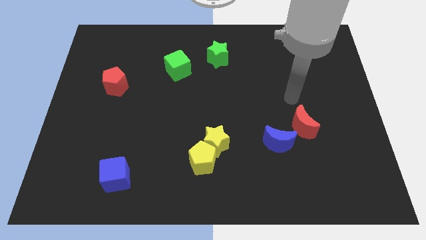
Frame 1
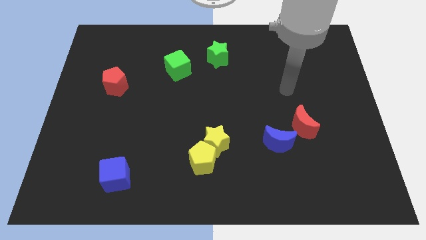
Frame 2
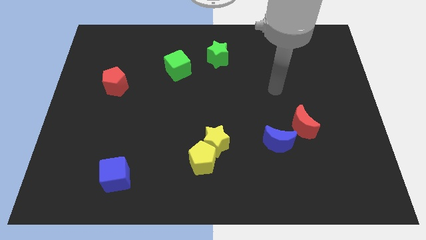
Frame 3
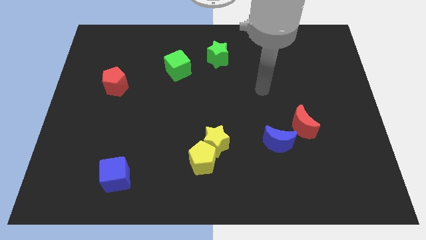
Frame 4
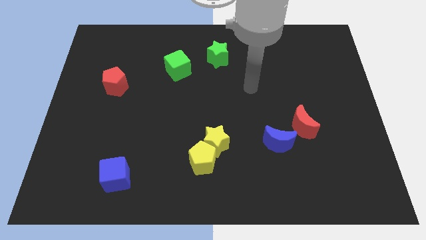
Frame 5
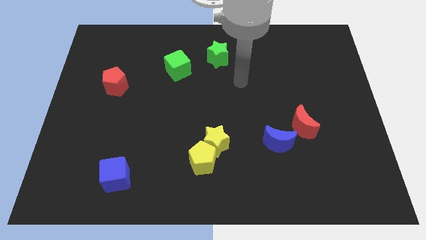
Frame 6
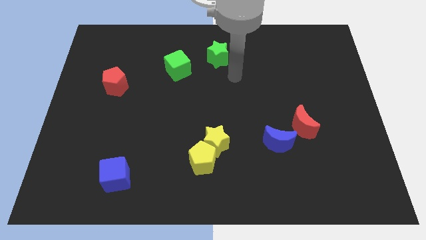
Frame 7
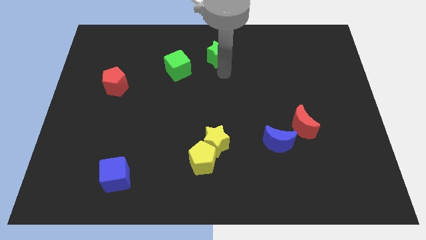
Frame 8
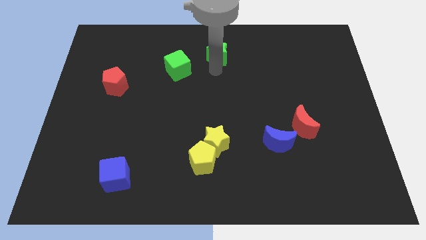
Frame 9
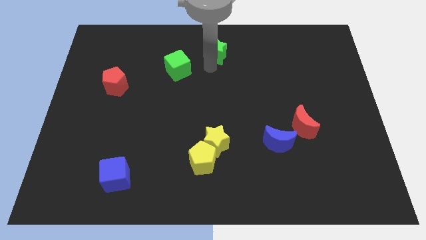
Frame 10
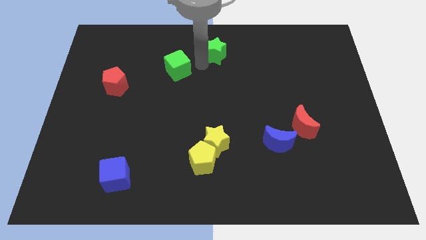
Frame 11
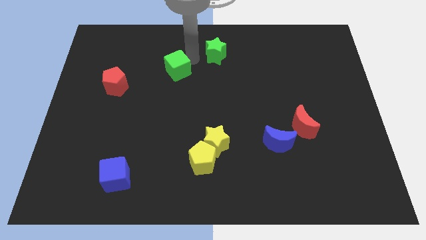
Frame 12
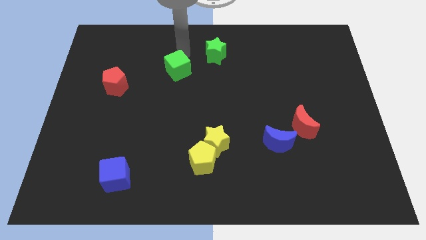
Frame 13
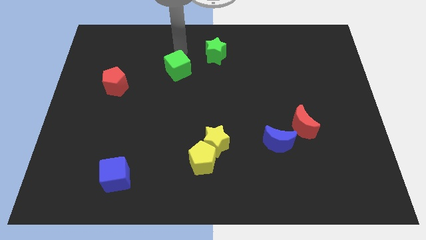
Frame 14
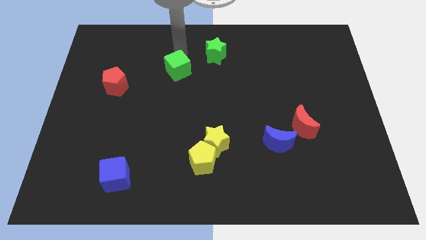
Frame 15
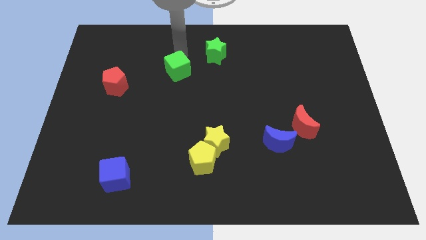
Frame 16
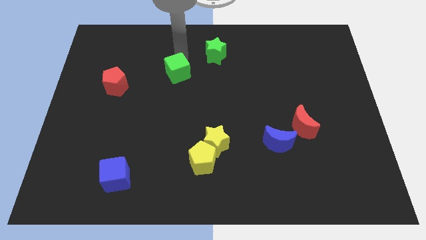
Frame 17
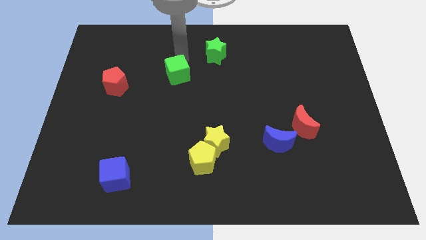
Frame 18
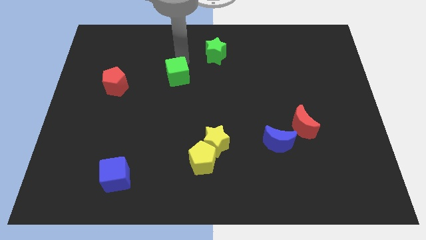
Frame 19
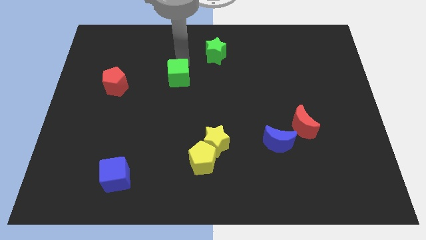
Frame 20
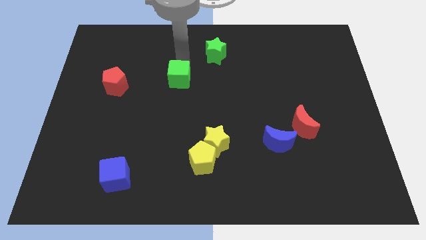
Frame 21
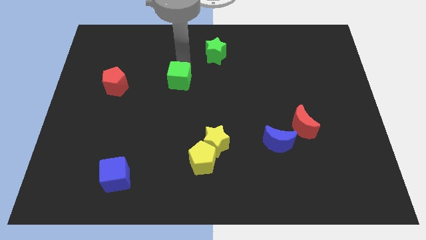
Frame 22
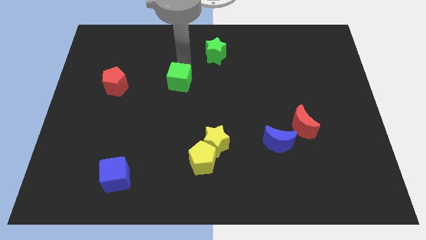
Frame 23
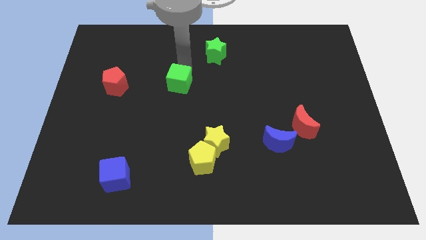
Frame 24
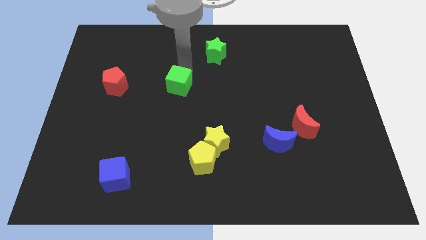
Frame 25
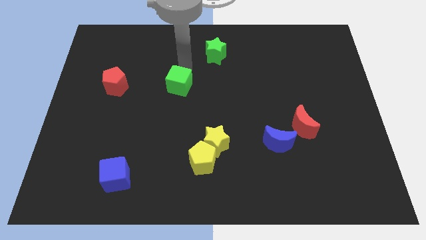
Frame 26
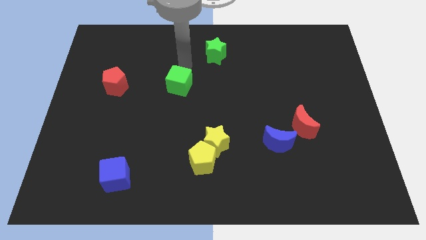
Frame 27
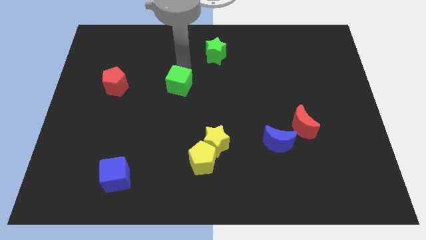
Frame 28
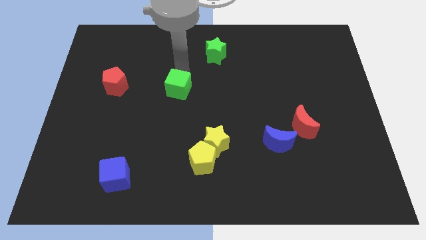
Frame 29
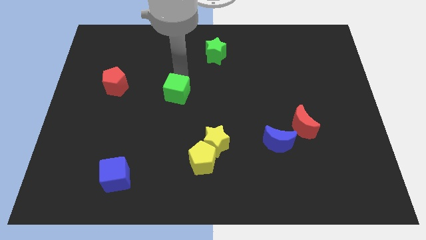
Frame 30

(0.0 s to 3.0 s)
slide the green cube slightly down

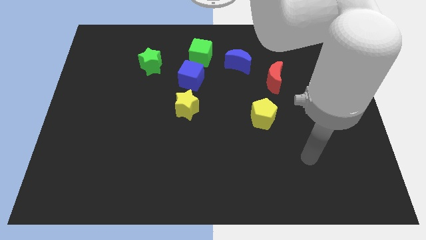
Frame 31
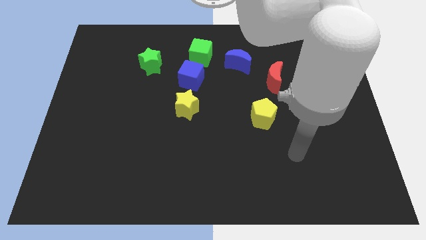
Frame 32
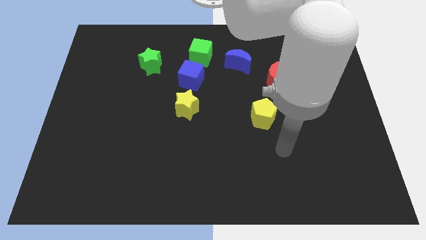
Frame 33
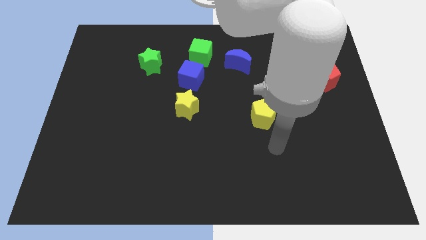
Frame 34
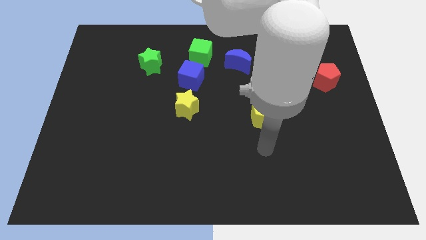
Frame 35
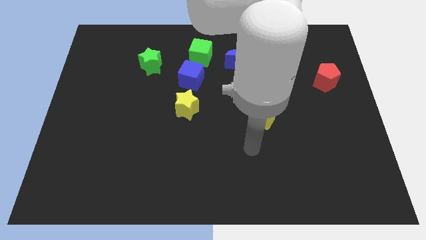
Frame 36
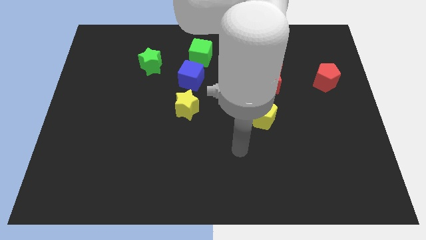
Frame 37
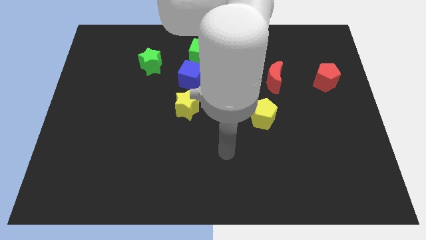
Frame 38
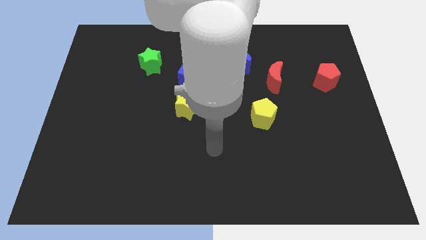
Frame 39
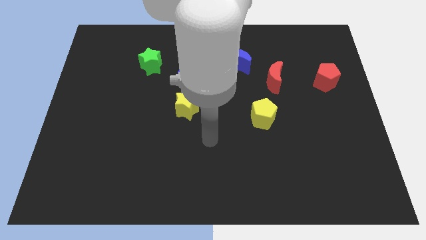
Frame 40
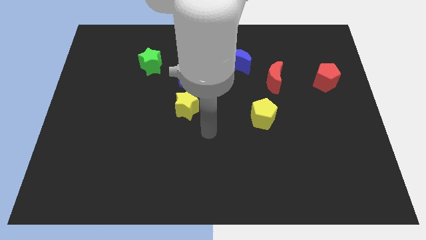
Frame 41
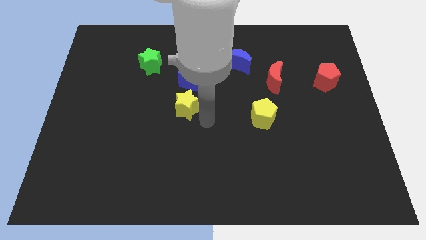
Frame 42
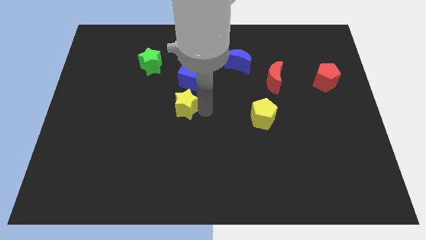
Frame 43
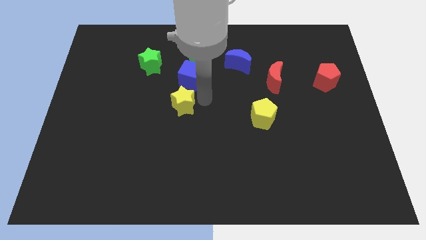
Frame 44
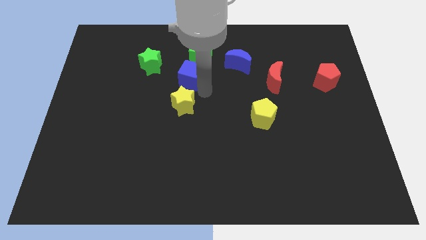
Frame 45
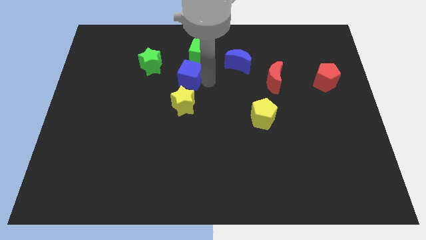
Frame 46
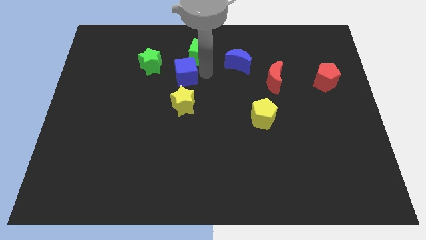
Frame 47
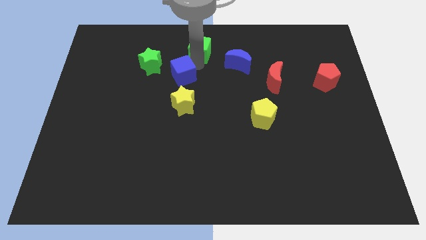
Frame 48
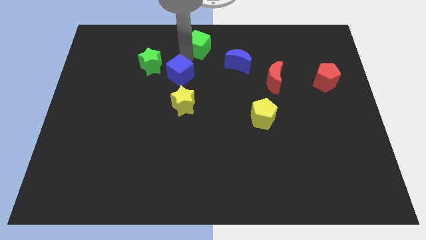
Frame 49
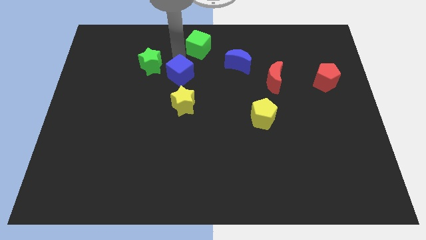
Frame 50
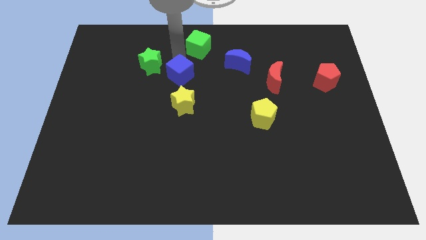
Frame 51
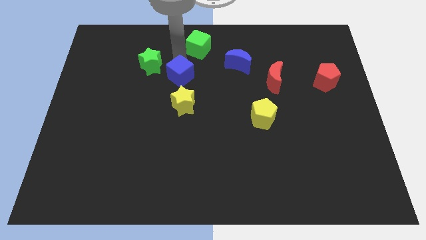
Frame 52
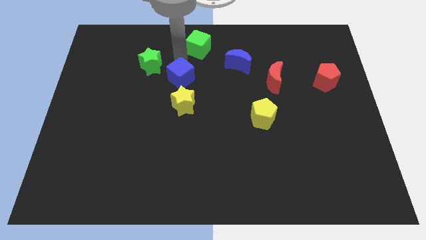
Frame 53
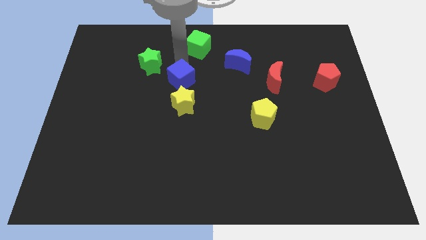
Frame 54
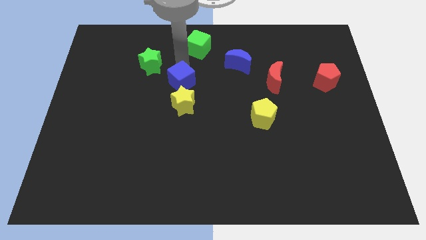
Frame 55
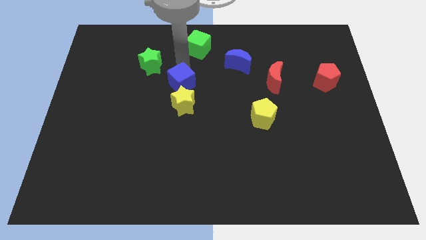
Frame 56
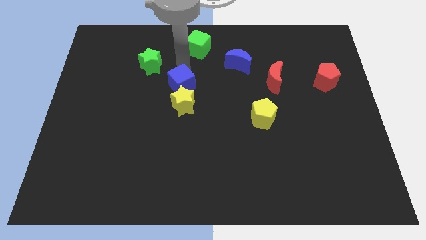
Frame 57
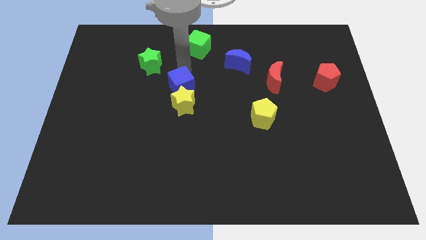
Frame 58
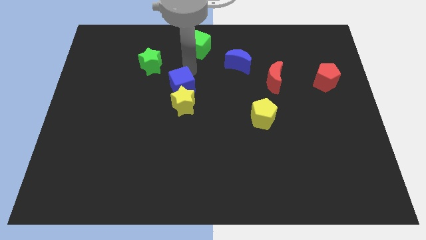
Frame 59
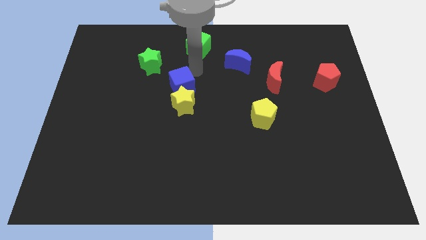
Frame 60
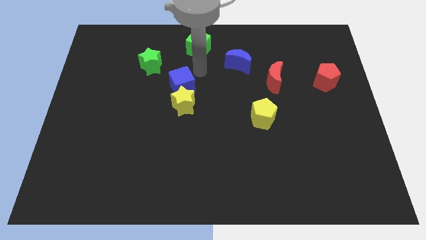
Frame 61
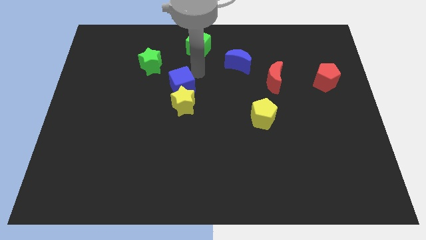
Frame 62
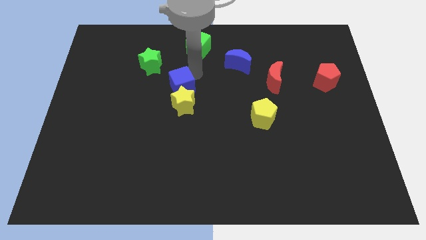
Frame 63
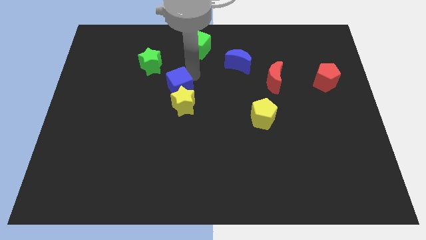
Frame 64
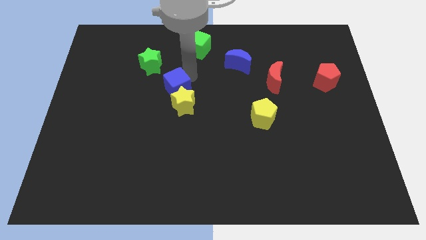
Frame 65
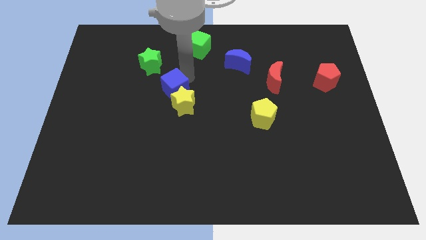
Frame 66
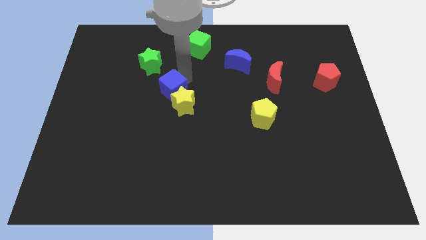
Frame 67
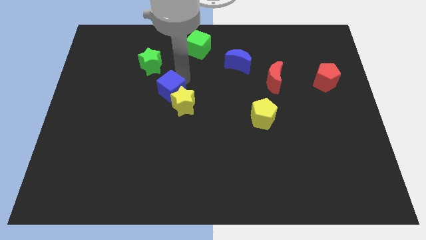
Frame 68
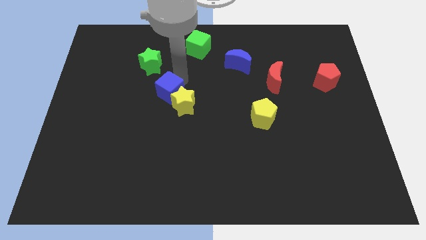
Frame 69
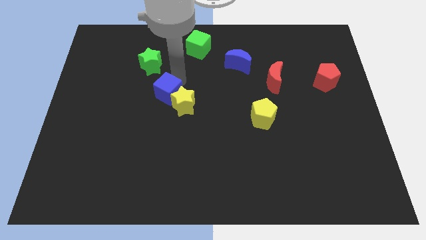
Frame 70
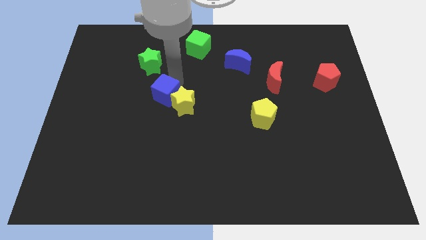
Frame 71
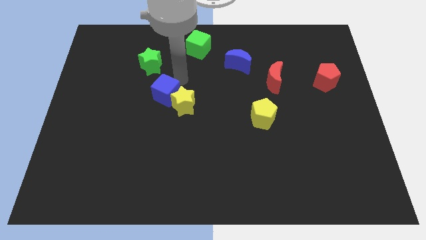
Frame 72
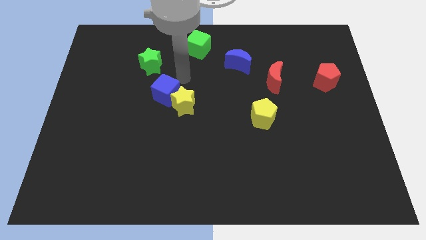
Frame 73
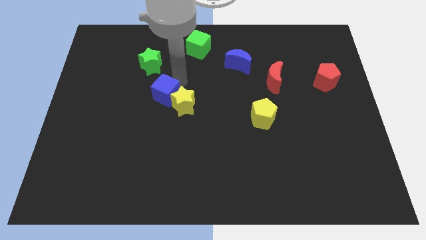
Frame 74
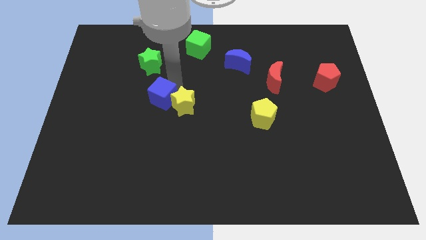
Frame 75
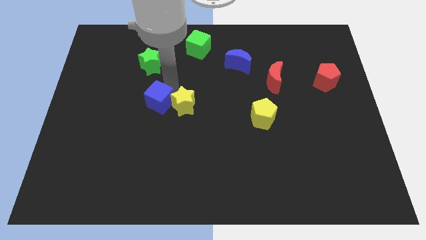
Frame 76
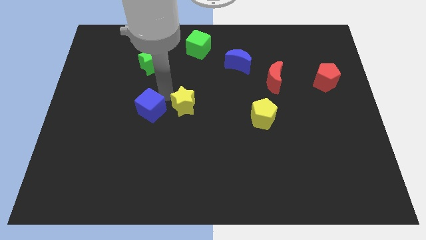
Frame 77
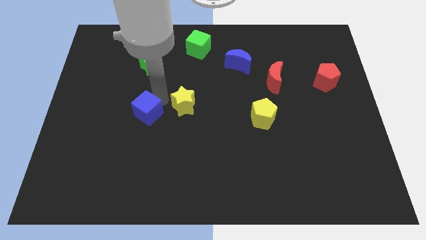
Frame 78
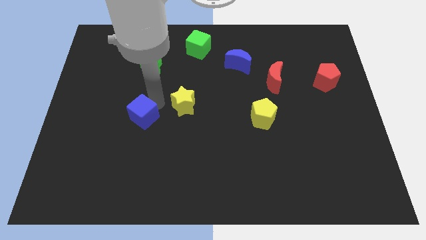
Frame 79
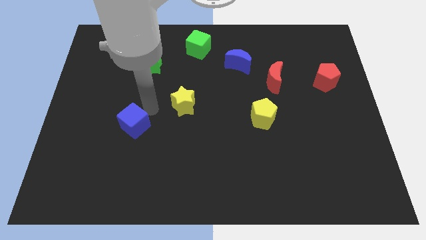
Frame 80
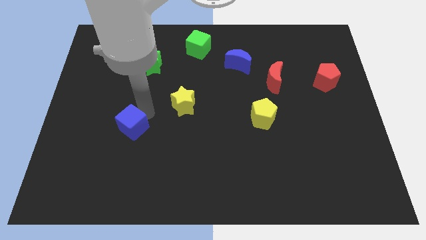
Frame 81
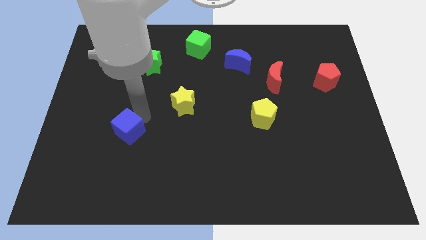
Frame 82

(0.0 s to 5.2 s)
move the blue cube diagonally downwards and to the left
